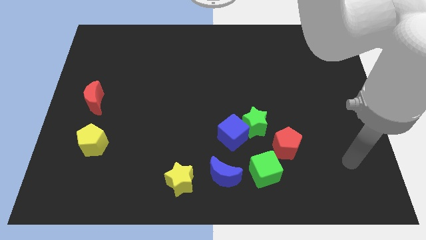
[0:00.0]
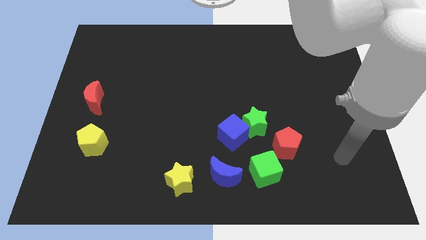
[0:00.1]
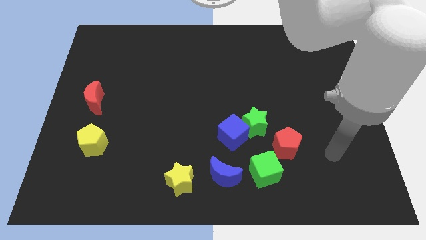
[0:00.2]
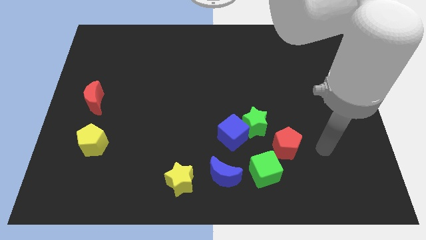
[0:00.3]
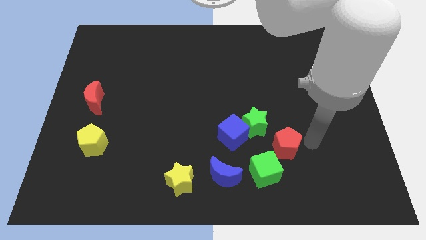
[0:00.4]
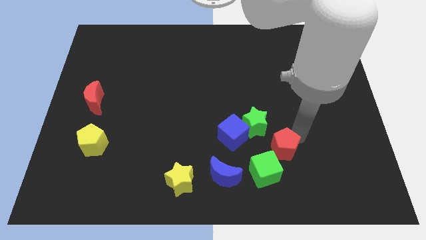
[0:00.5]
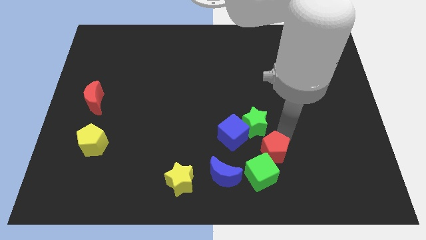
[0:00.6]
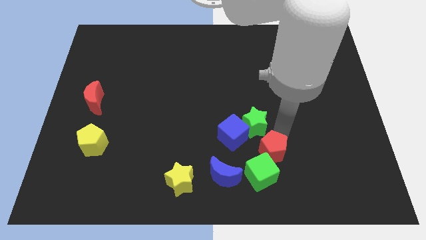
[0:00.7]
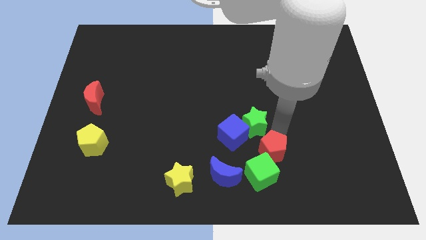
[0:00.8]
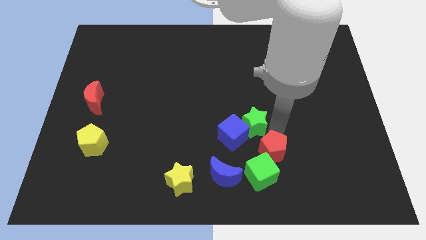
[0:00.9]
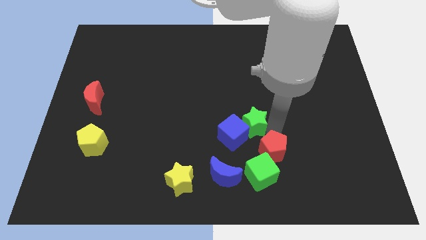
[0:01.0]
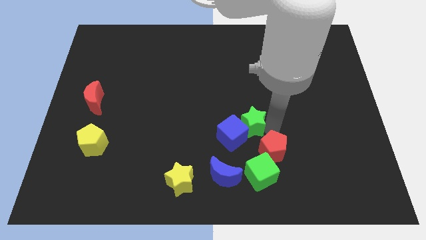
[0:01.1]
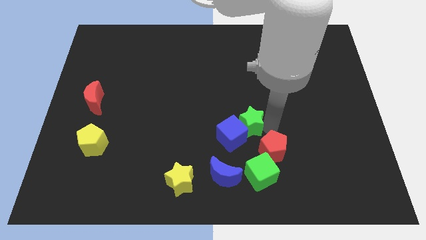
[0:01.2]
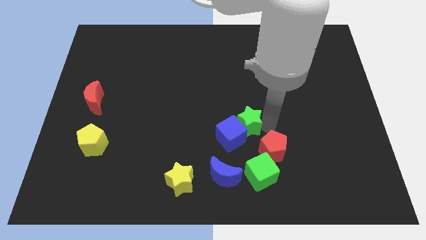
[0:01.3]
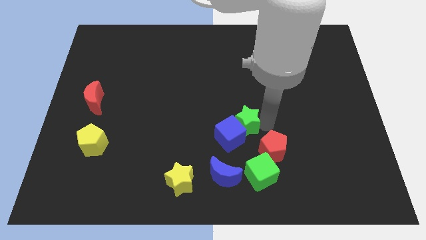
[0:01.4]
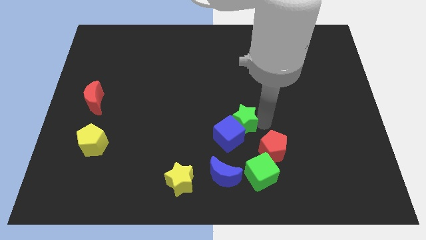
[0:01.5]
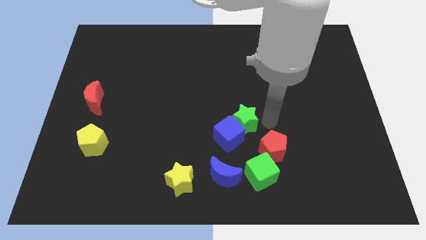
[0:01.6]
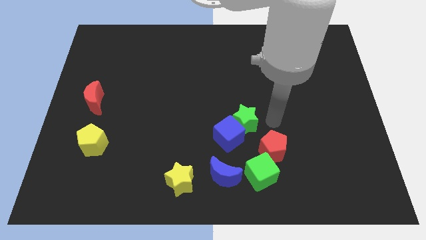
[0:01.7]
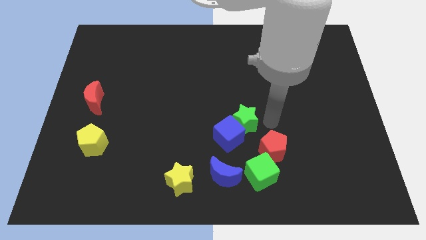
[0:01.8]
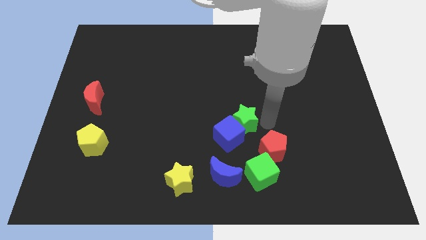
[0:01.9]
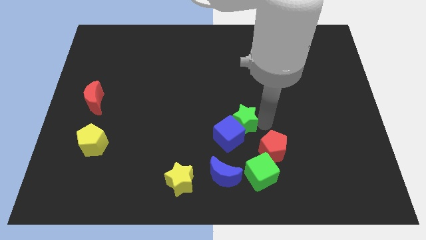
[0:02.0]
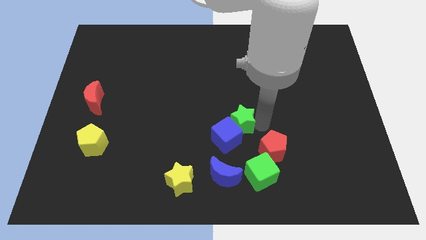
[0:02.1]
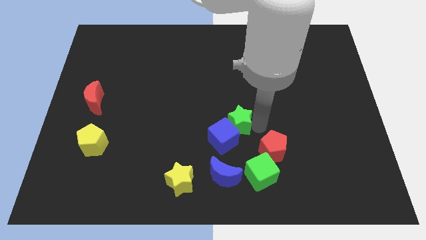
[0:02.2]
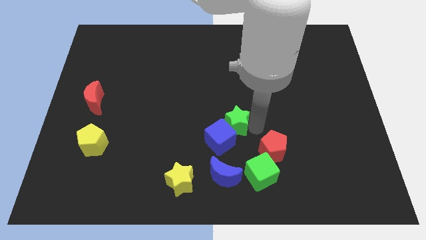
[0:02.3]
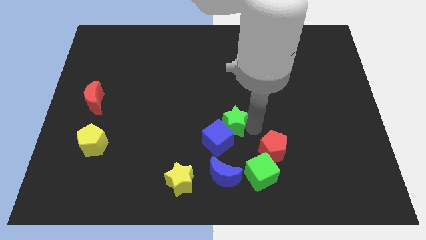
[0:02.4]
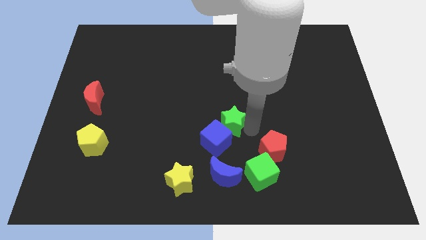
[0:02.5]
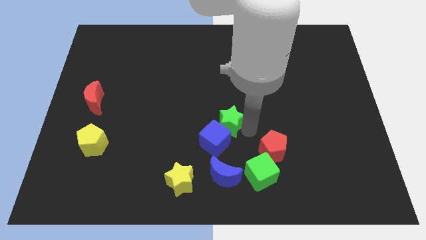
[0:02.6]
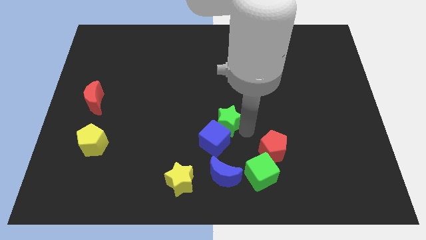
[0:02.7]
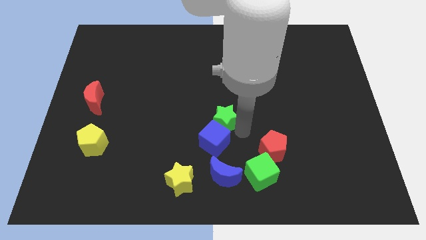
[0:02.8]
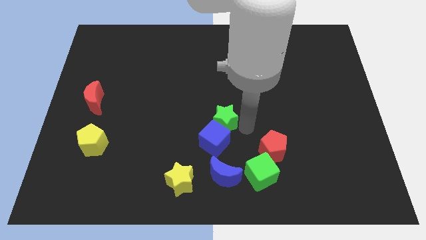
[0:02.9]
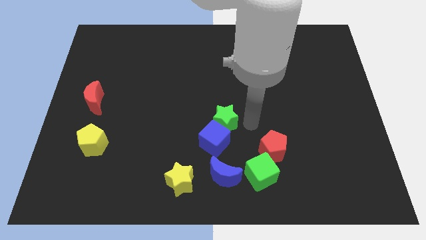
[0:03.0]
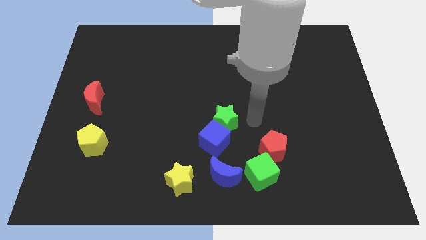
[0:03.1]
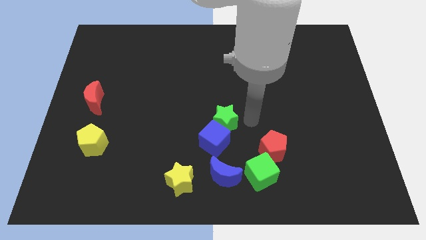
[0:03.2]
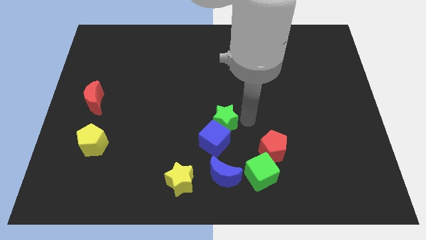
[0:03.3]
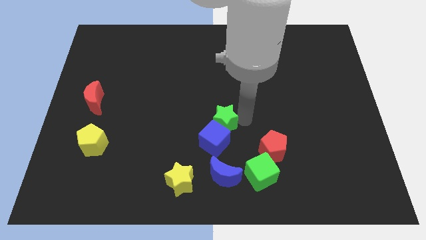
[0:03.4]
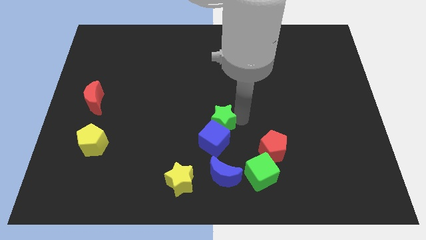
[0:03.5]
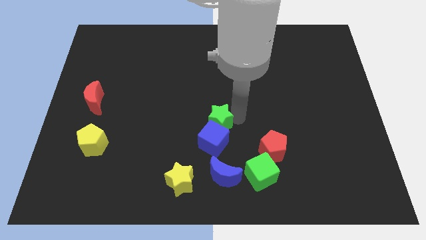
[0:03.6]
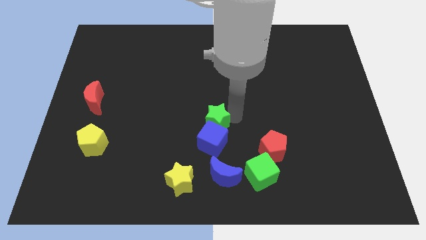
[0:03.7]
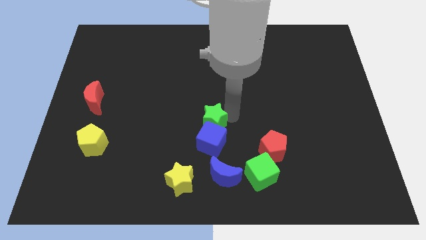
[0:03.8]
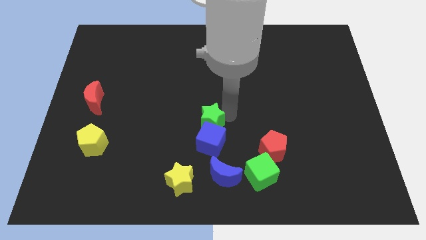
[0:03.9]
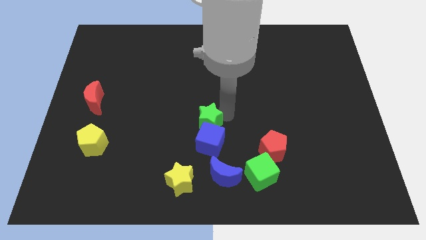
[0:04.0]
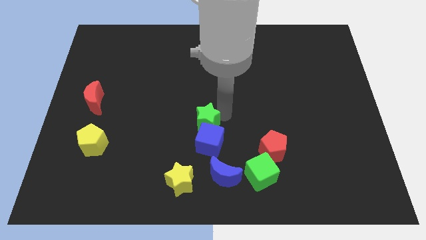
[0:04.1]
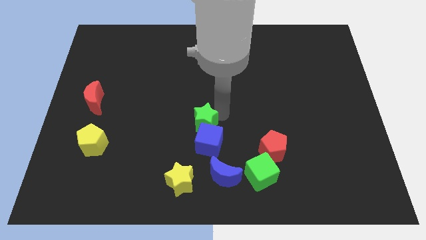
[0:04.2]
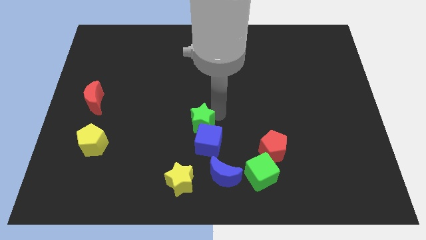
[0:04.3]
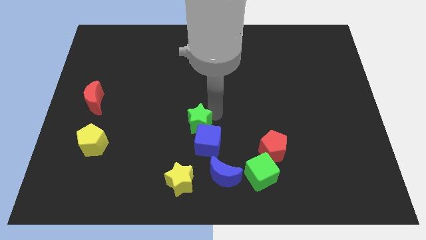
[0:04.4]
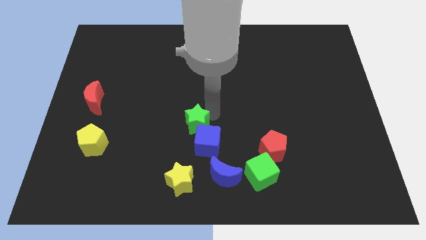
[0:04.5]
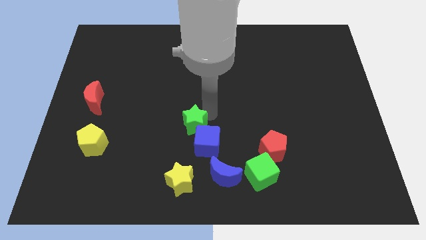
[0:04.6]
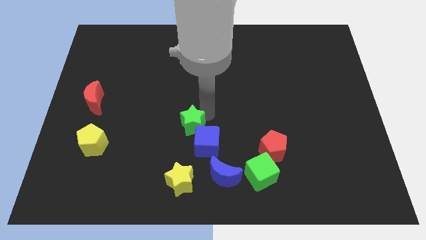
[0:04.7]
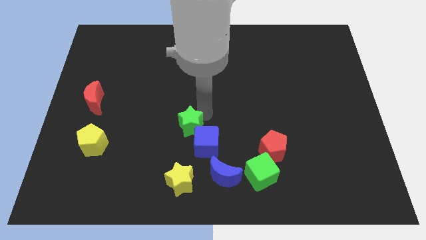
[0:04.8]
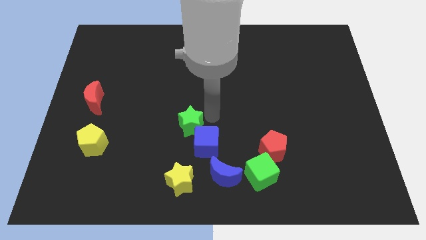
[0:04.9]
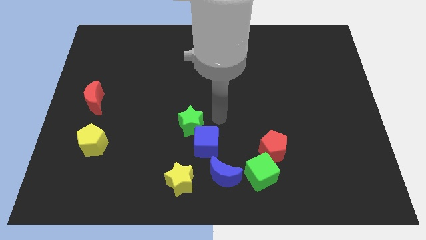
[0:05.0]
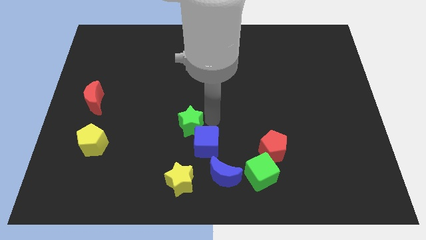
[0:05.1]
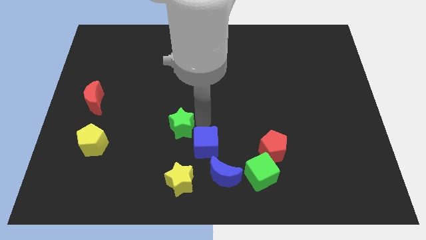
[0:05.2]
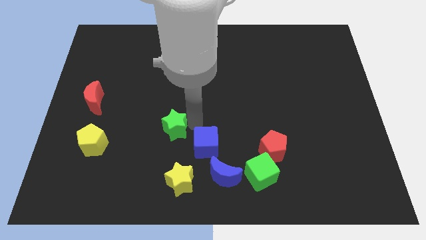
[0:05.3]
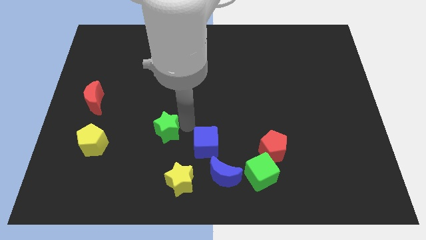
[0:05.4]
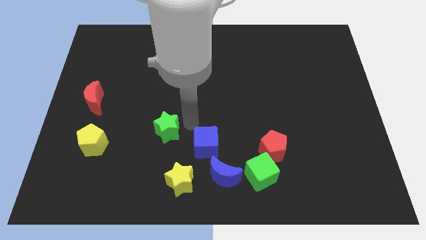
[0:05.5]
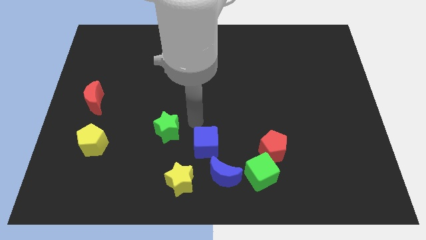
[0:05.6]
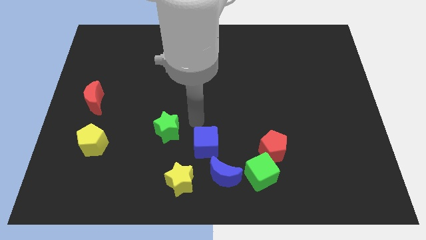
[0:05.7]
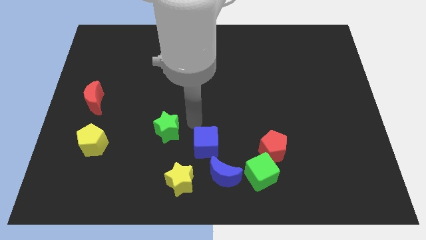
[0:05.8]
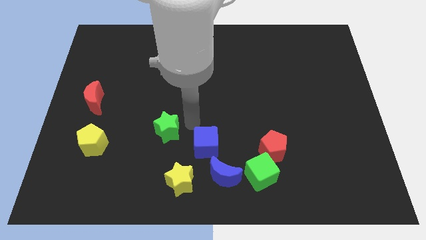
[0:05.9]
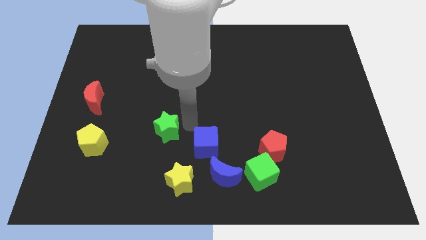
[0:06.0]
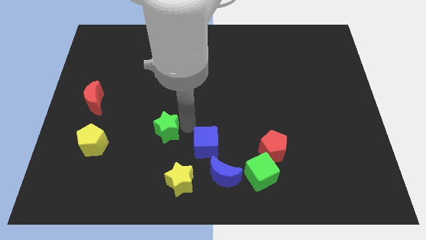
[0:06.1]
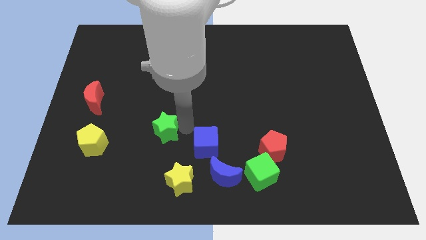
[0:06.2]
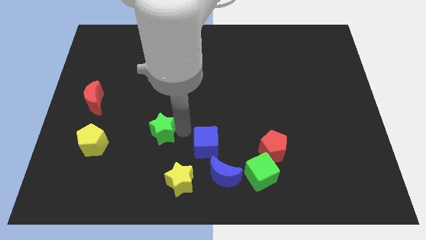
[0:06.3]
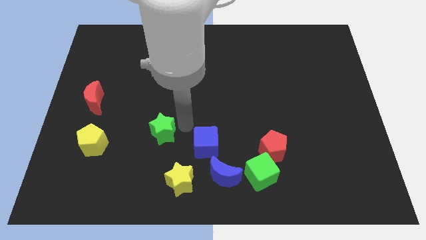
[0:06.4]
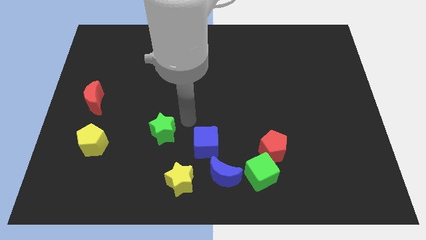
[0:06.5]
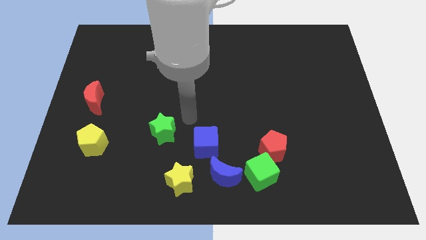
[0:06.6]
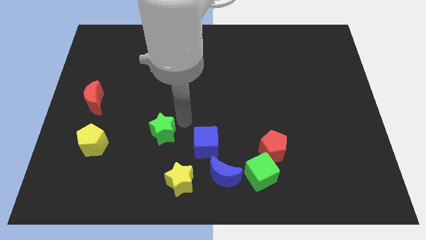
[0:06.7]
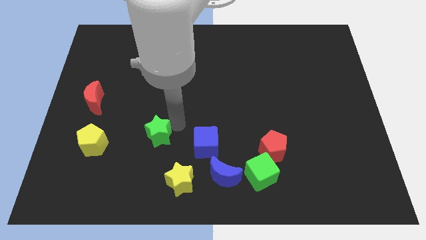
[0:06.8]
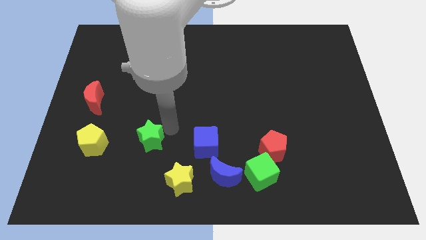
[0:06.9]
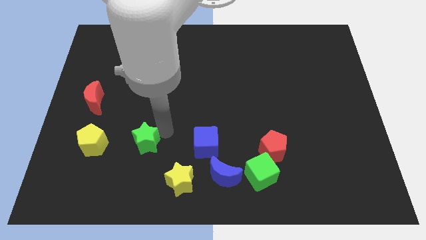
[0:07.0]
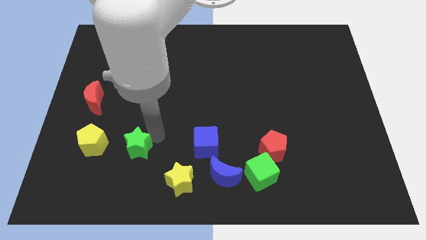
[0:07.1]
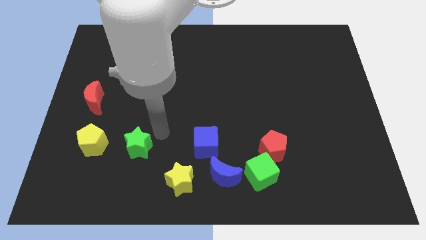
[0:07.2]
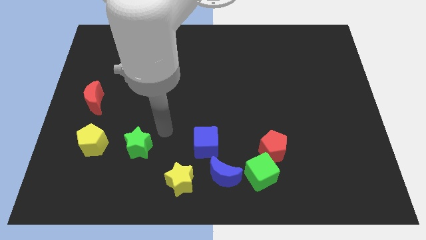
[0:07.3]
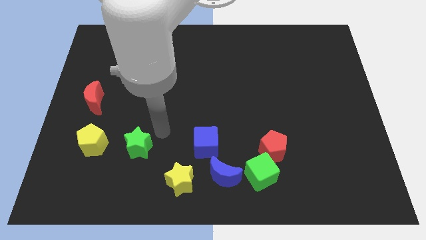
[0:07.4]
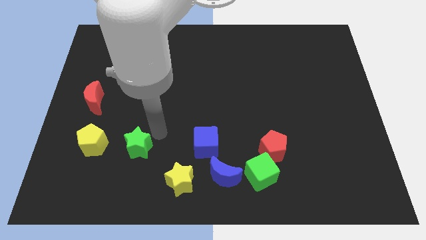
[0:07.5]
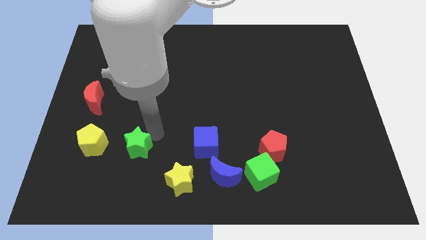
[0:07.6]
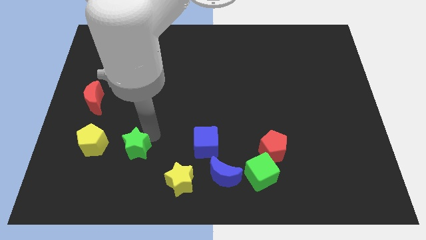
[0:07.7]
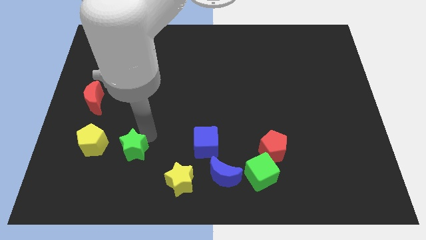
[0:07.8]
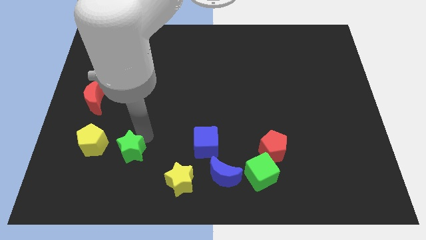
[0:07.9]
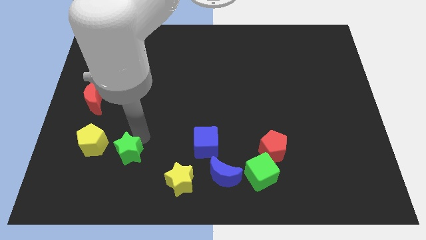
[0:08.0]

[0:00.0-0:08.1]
push the green star to the bottom right side of the yellow pentagon
